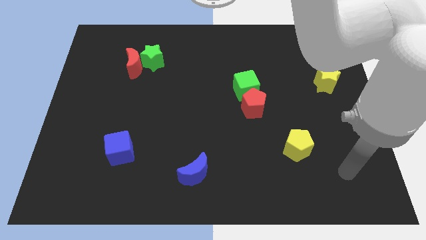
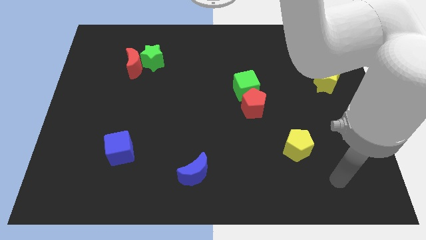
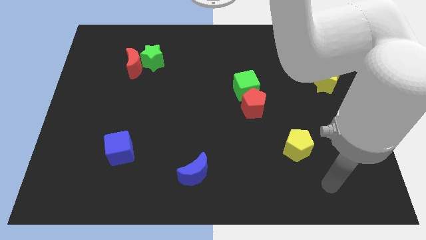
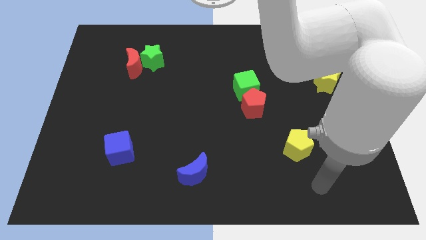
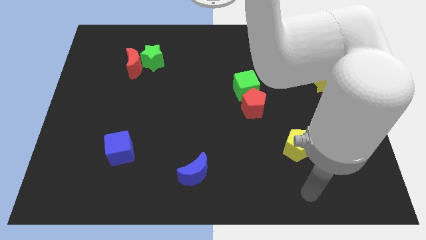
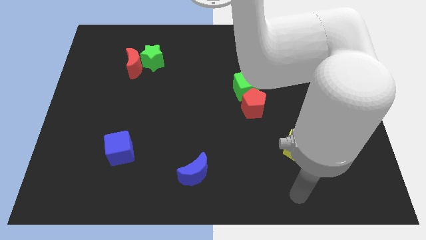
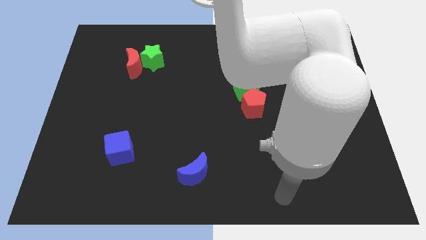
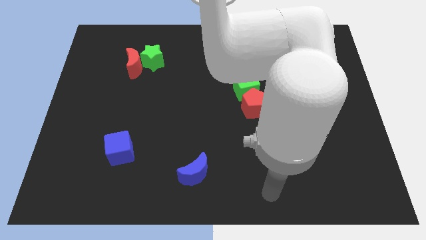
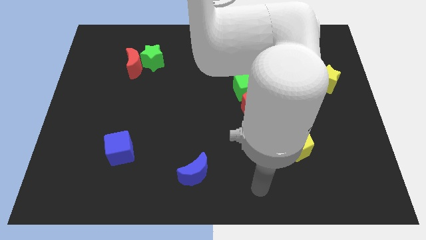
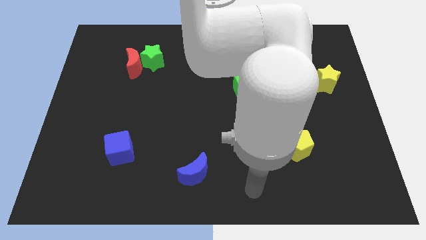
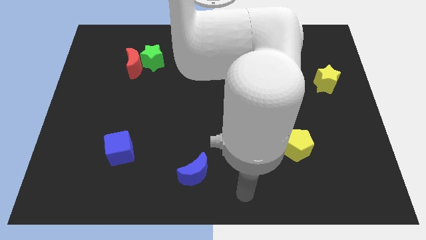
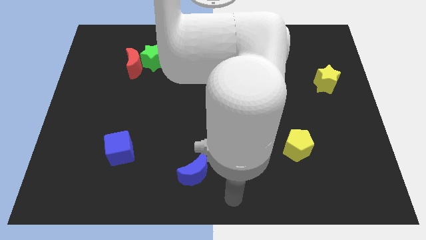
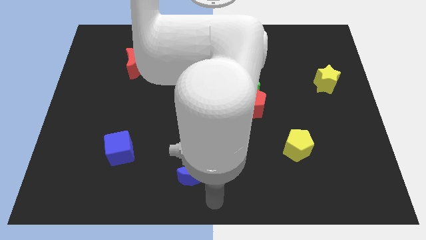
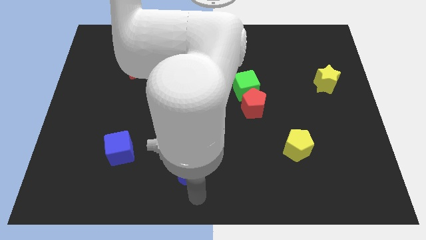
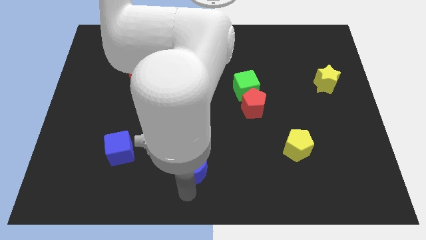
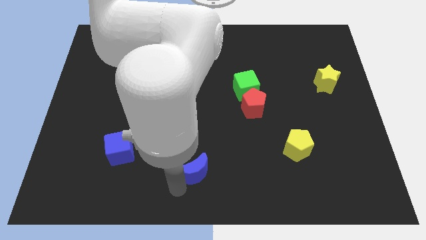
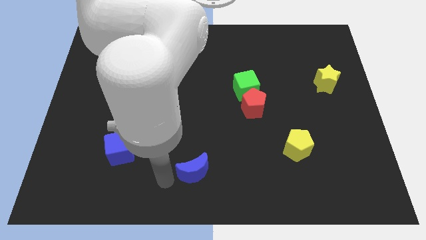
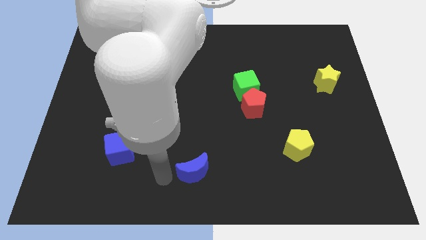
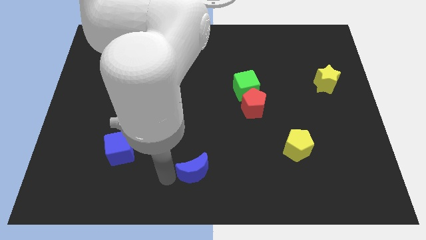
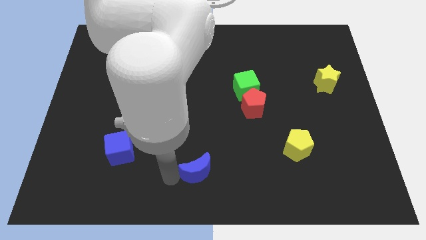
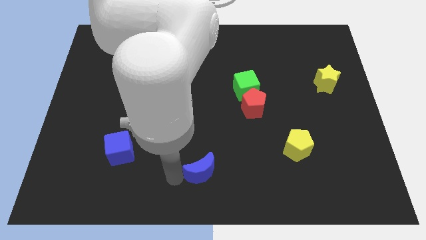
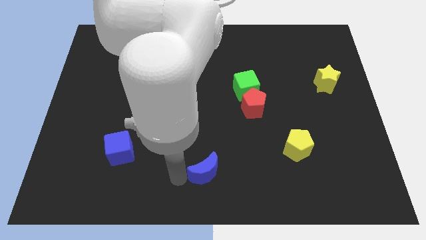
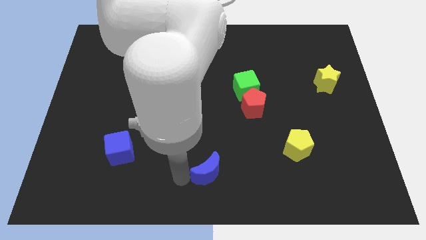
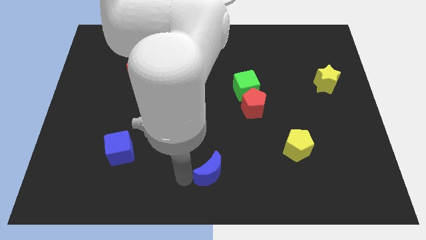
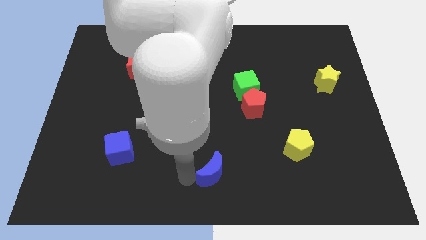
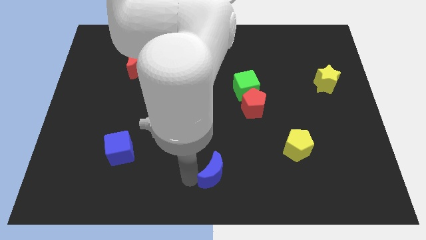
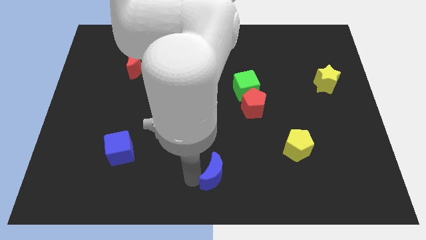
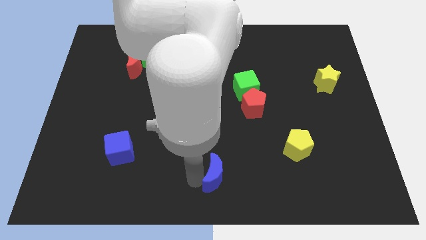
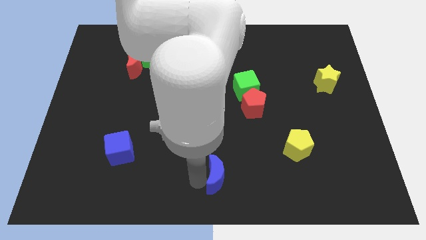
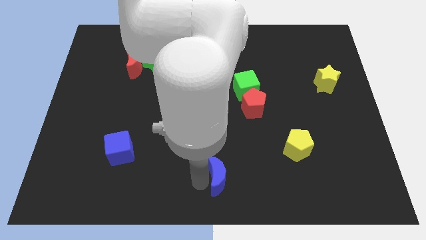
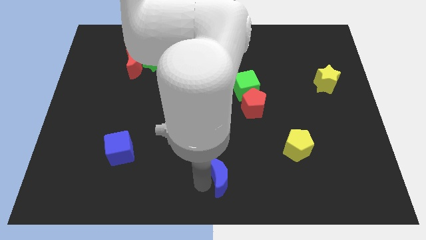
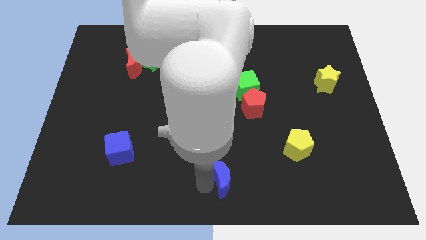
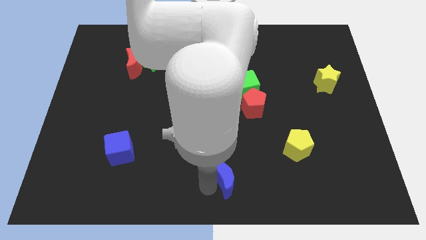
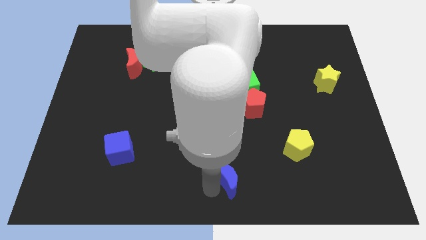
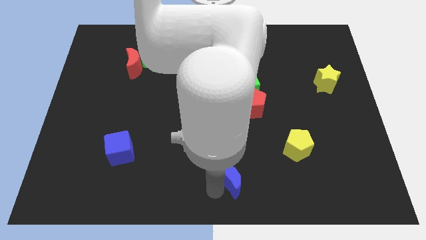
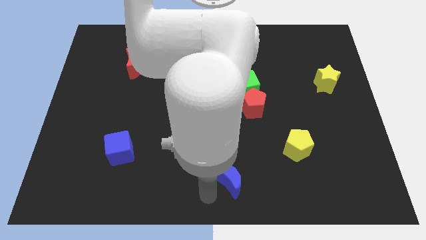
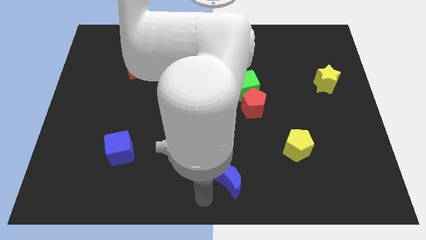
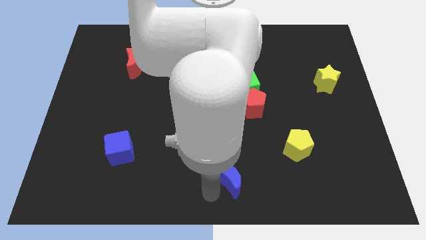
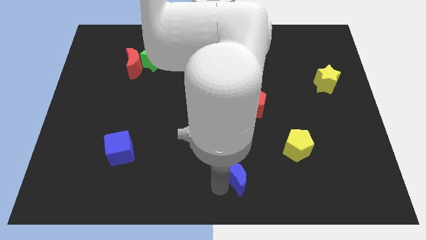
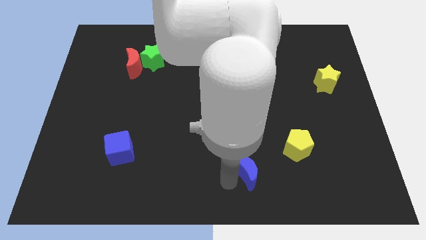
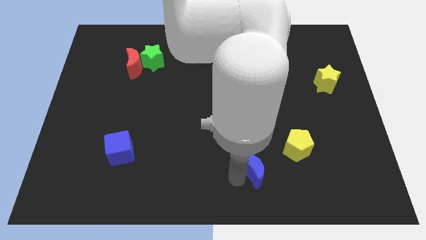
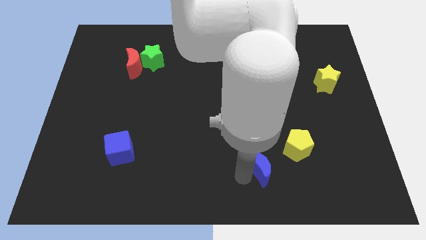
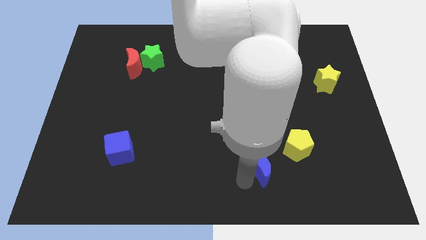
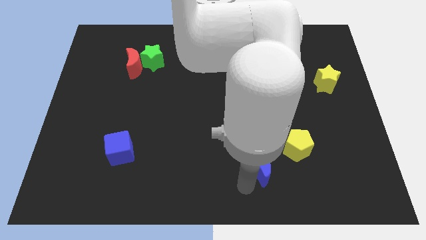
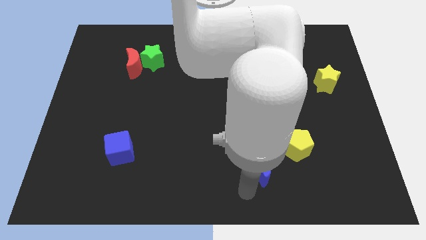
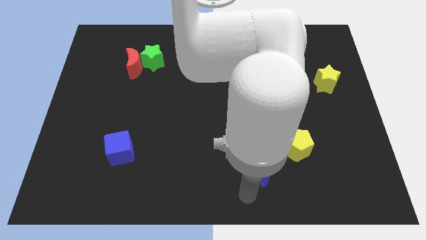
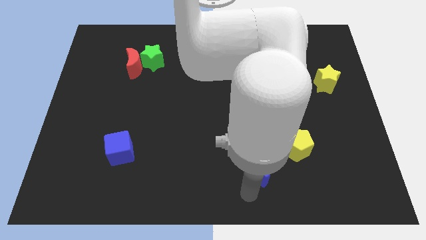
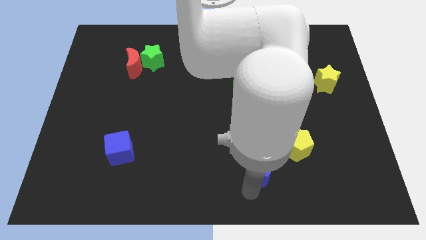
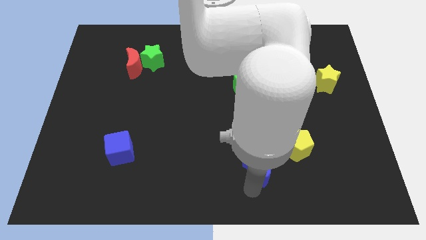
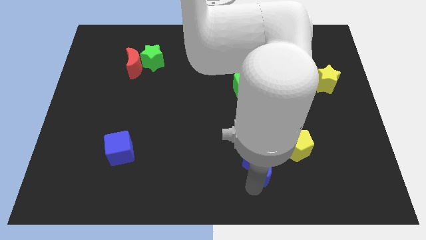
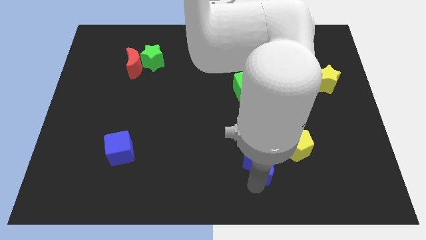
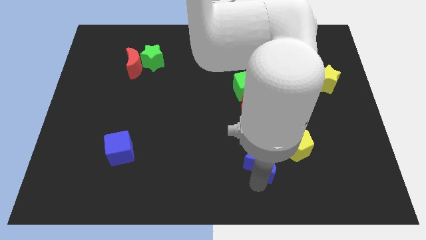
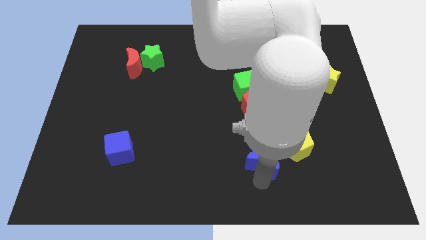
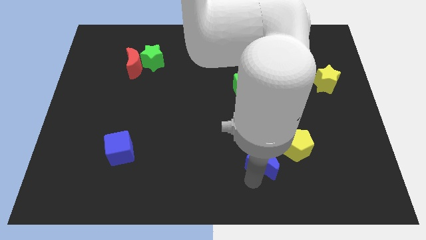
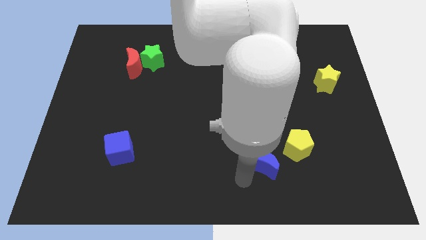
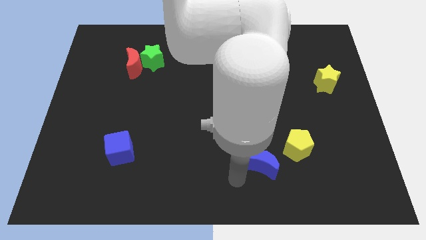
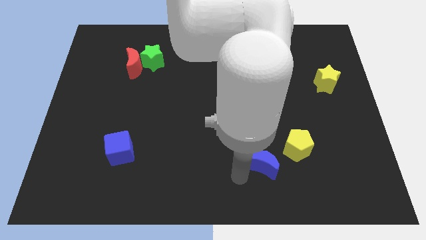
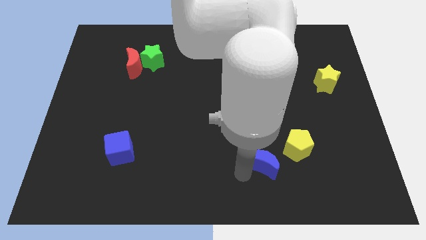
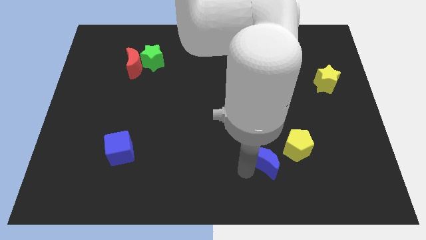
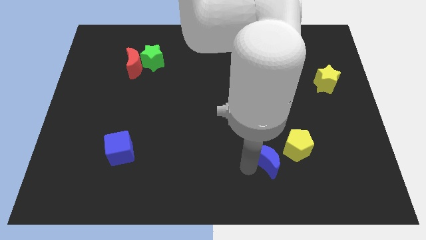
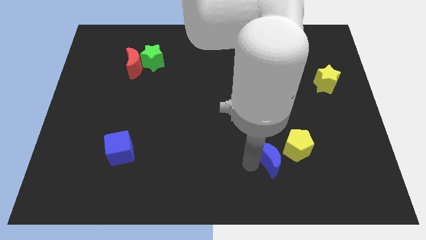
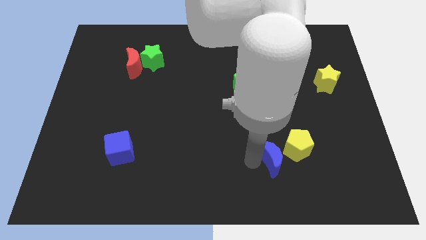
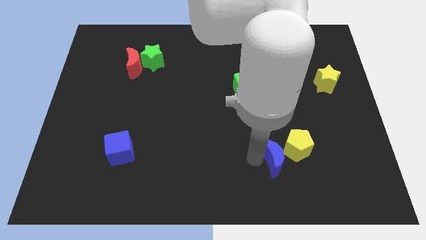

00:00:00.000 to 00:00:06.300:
put the blue moon next to the yellow pentagon
